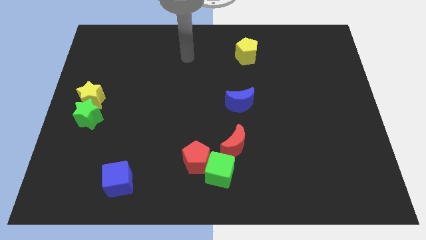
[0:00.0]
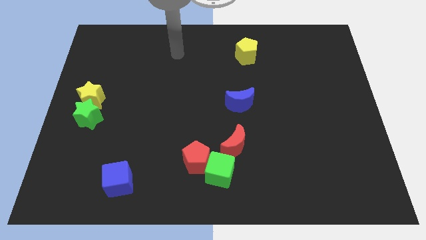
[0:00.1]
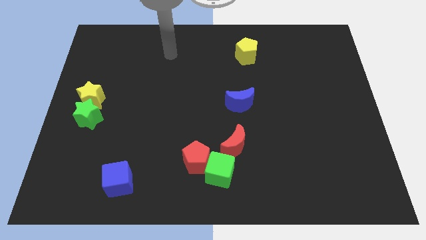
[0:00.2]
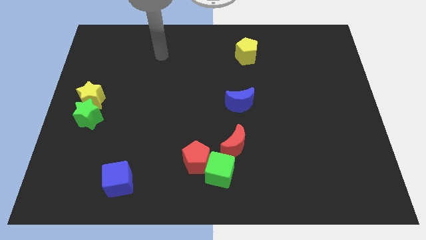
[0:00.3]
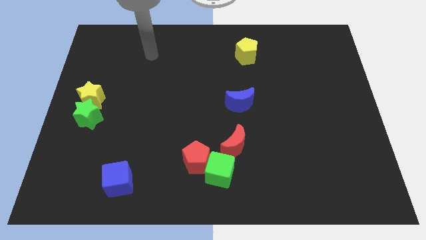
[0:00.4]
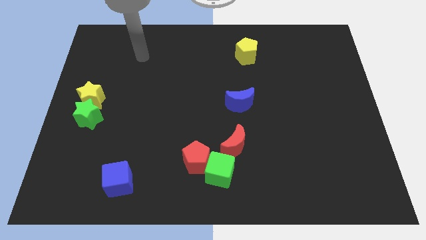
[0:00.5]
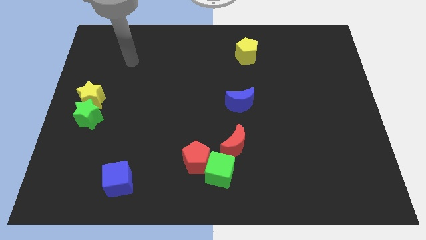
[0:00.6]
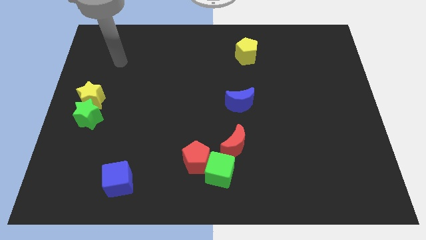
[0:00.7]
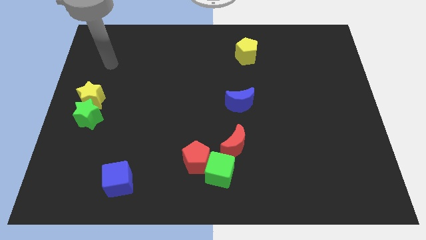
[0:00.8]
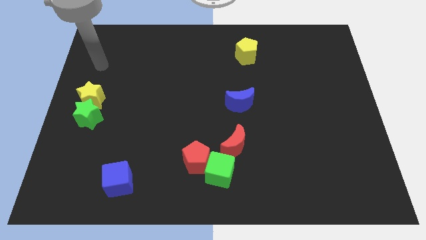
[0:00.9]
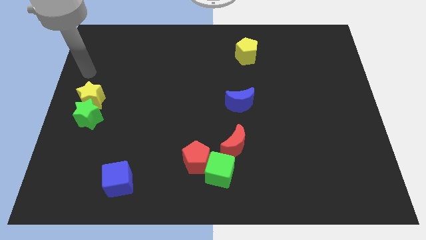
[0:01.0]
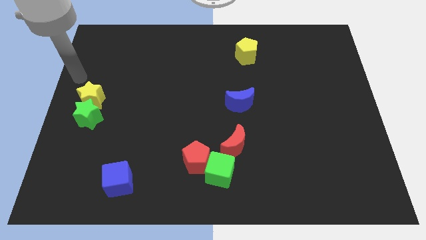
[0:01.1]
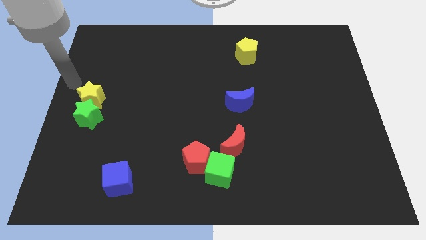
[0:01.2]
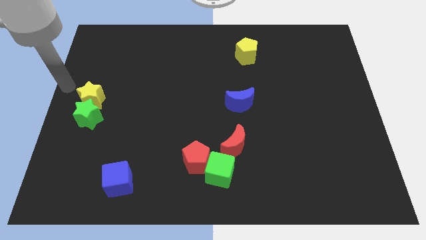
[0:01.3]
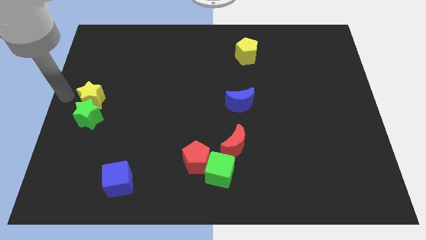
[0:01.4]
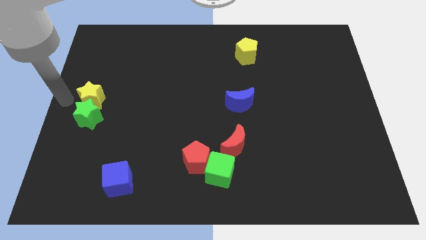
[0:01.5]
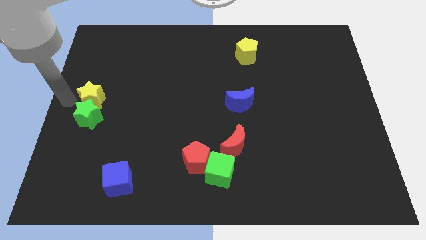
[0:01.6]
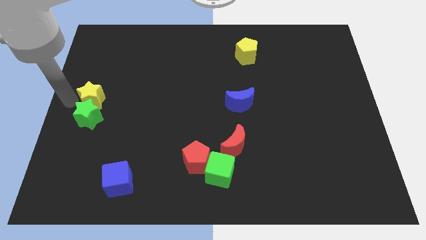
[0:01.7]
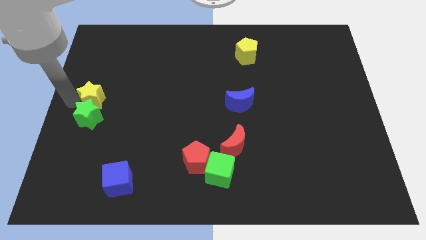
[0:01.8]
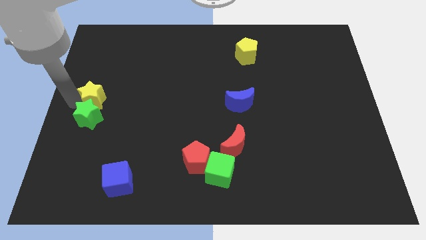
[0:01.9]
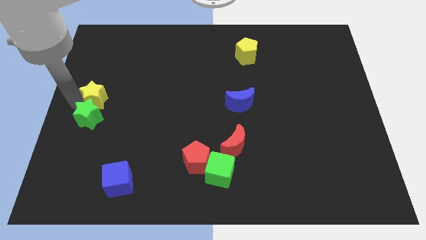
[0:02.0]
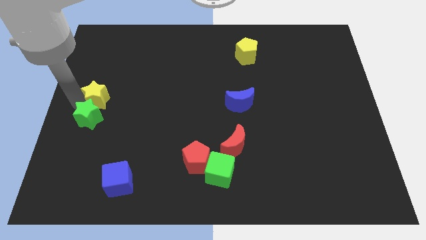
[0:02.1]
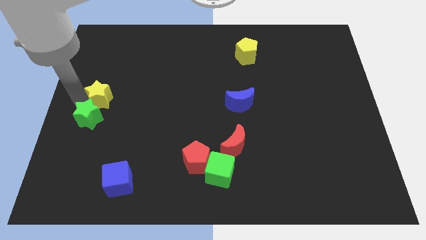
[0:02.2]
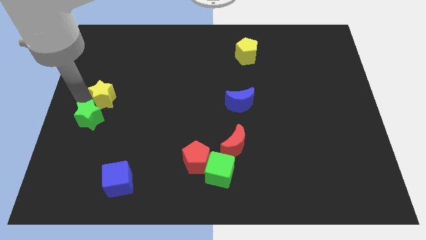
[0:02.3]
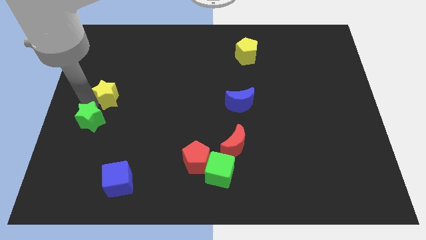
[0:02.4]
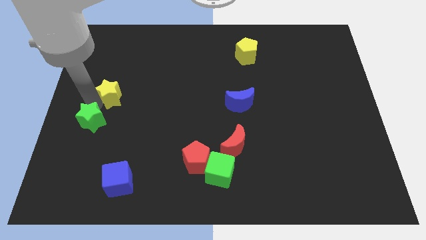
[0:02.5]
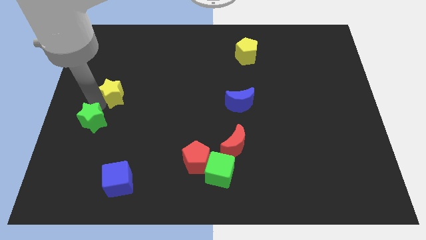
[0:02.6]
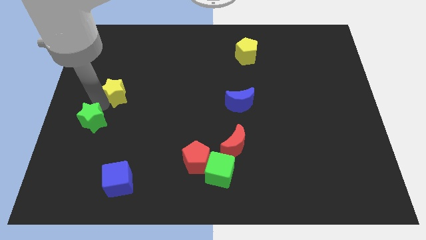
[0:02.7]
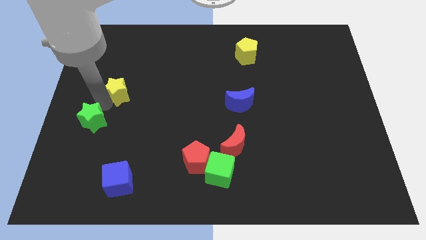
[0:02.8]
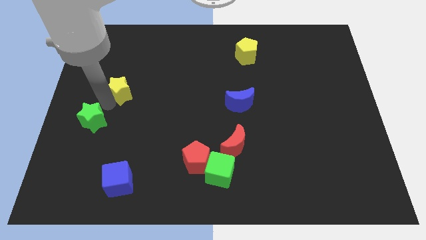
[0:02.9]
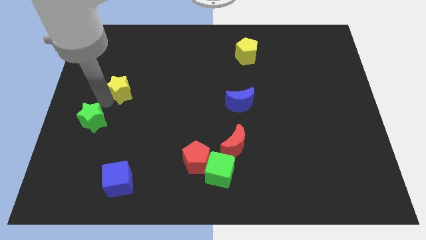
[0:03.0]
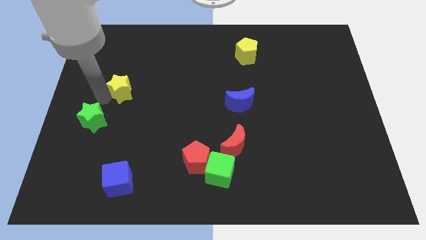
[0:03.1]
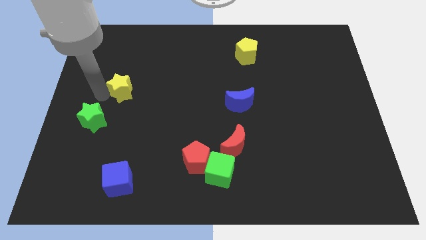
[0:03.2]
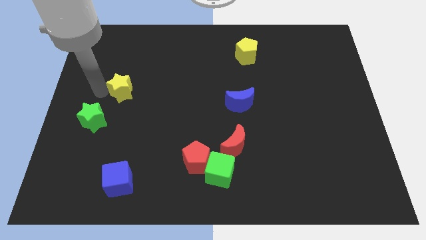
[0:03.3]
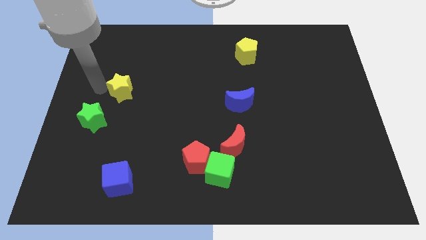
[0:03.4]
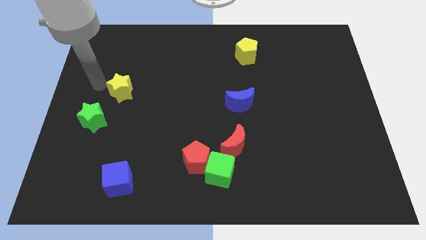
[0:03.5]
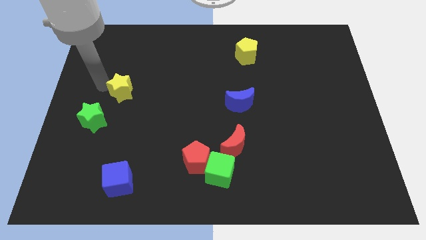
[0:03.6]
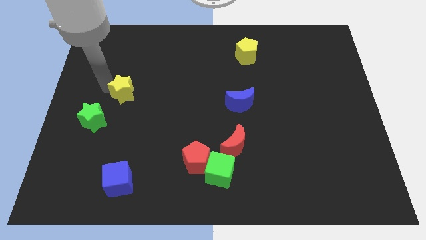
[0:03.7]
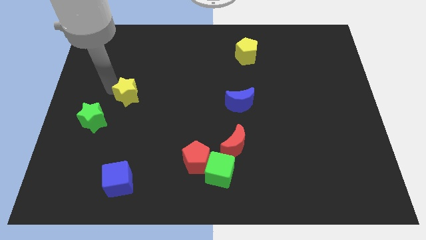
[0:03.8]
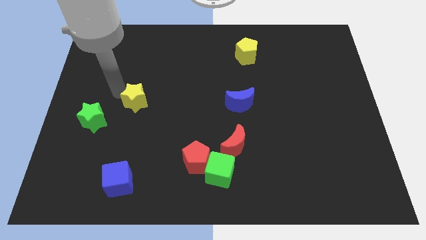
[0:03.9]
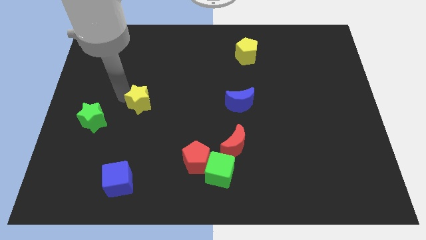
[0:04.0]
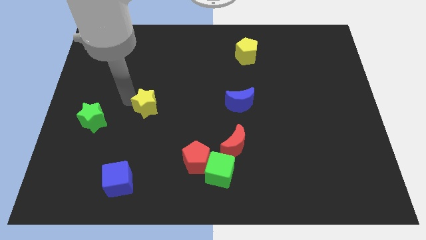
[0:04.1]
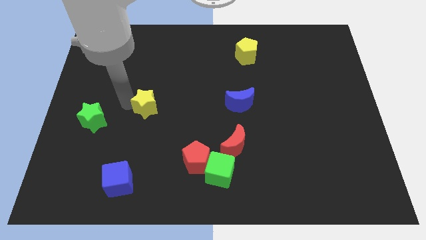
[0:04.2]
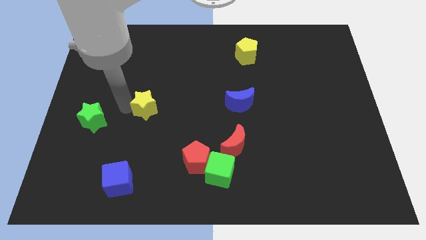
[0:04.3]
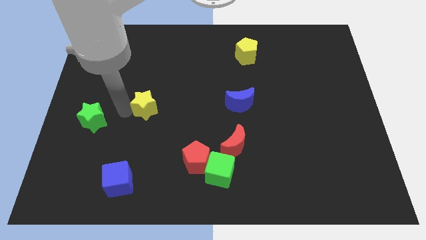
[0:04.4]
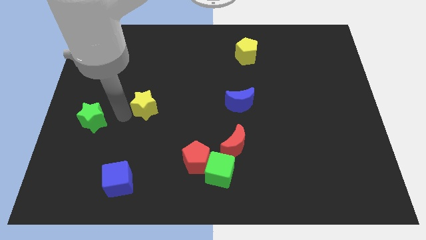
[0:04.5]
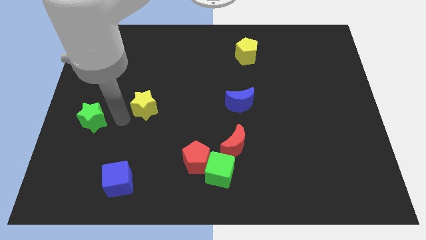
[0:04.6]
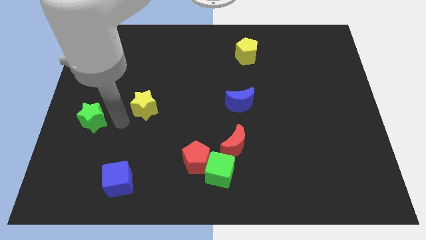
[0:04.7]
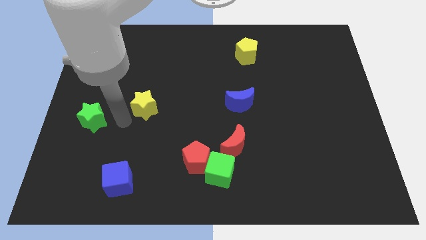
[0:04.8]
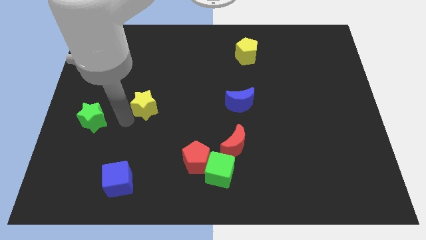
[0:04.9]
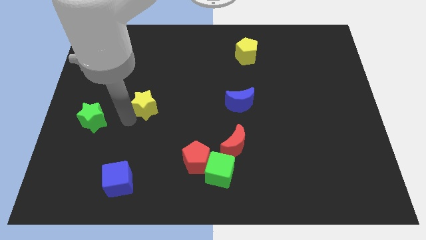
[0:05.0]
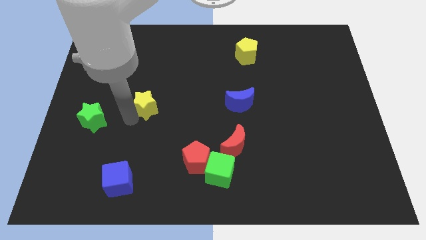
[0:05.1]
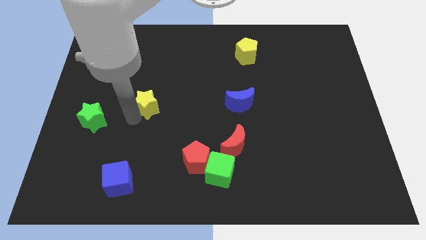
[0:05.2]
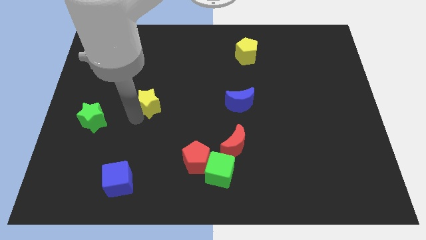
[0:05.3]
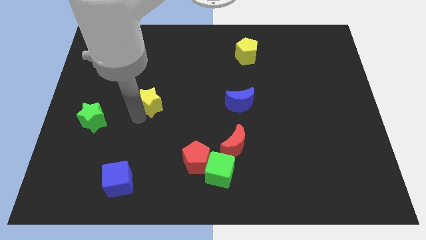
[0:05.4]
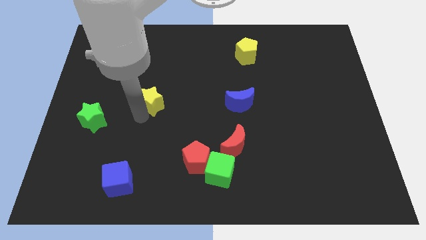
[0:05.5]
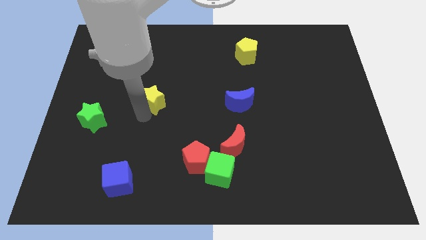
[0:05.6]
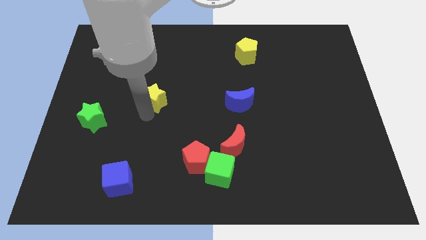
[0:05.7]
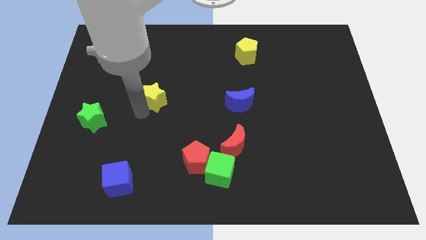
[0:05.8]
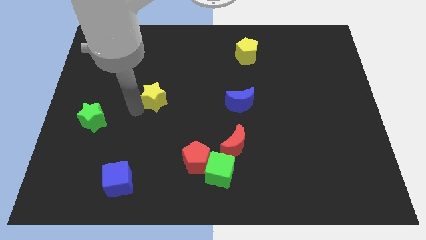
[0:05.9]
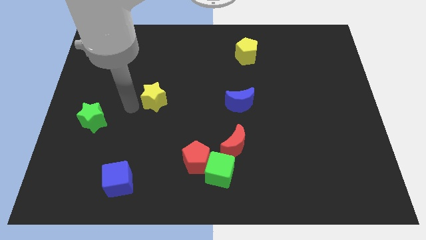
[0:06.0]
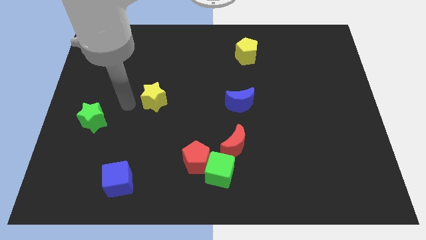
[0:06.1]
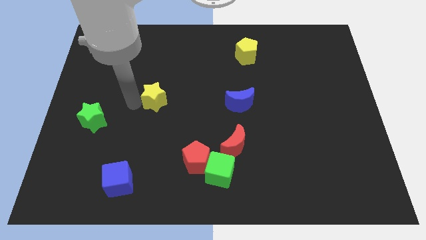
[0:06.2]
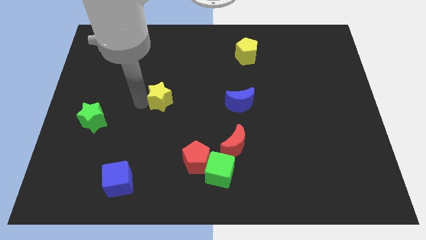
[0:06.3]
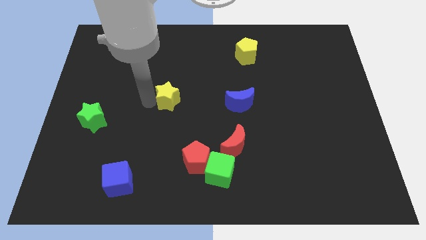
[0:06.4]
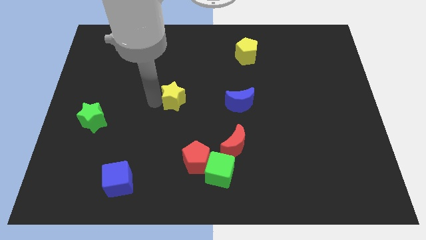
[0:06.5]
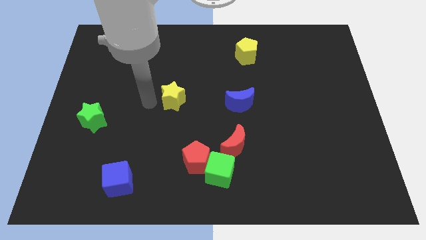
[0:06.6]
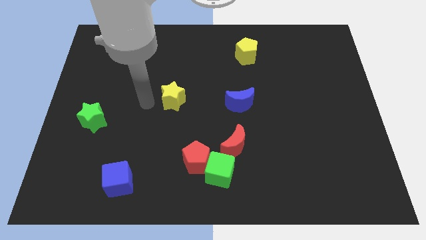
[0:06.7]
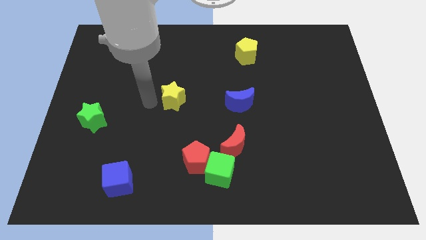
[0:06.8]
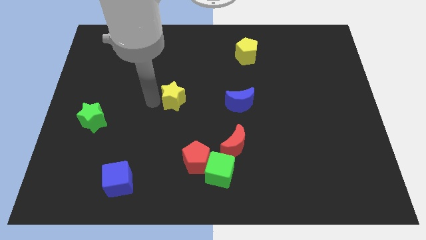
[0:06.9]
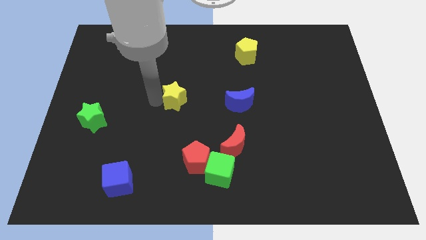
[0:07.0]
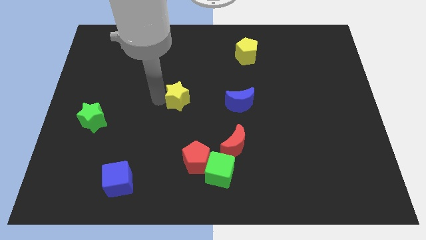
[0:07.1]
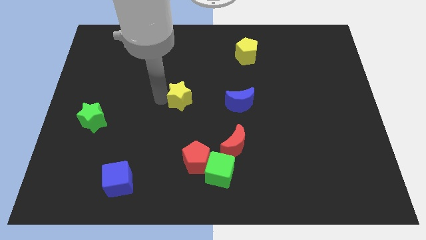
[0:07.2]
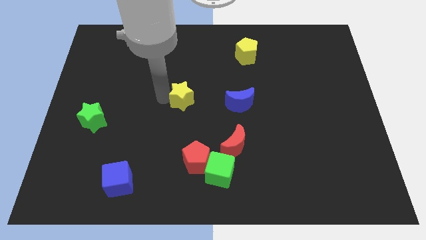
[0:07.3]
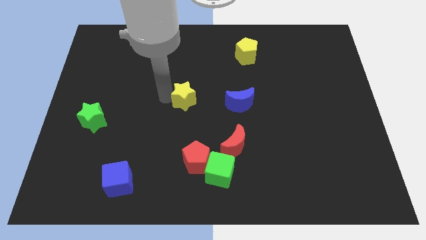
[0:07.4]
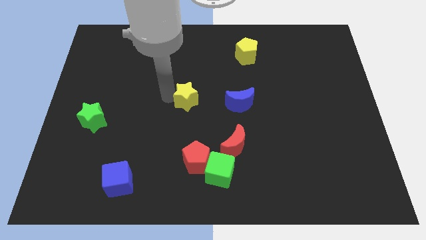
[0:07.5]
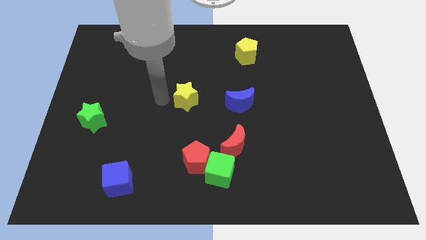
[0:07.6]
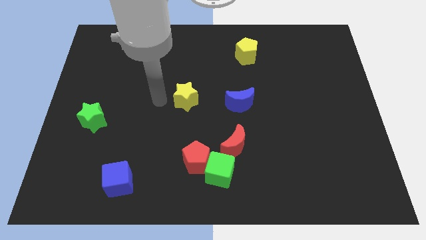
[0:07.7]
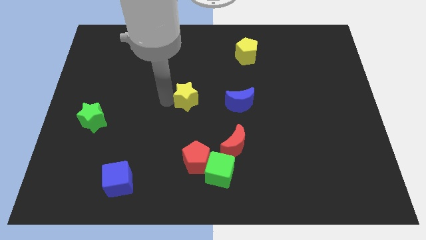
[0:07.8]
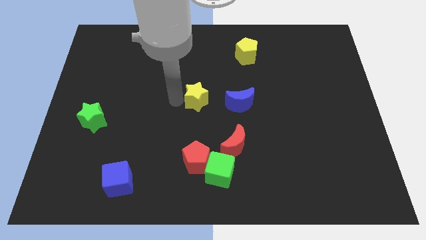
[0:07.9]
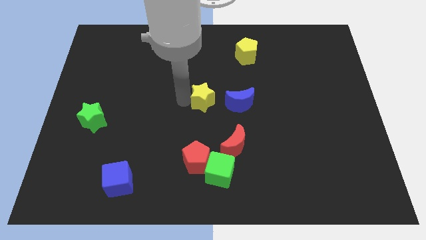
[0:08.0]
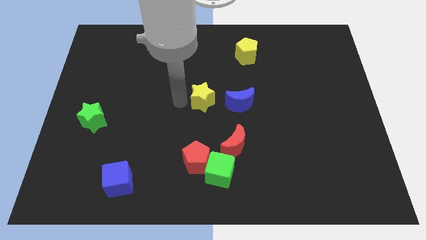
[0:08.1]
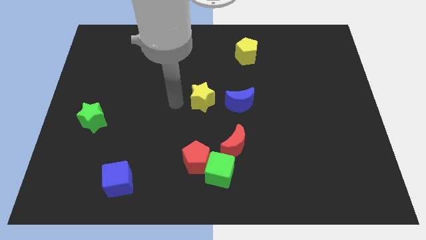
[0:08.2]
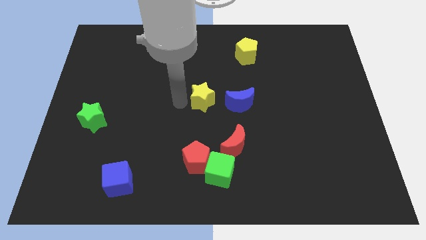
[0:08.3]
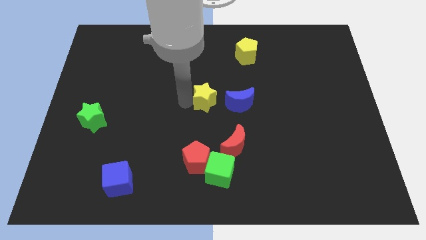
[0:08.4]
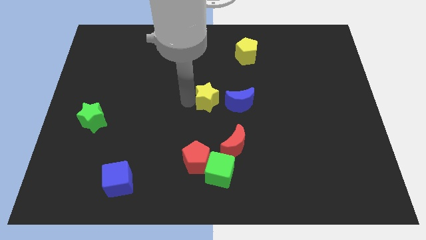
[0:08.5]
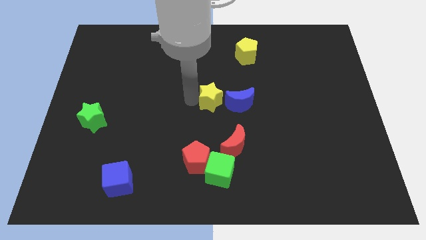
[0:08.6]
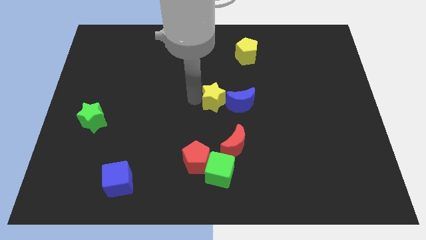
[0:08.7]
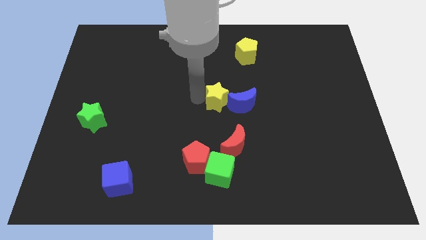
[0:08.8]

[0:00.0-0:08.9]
push the yellow star close to the blue moon
